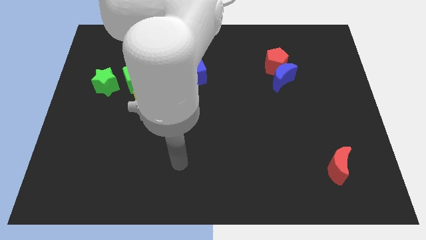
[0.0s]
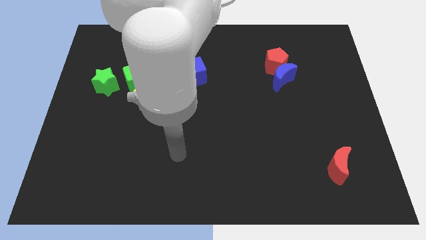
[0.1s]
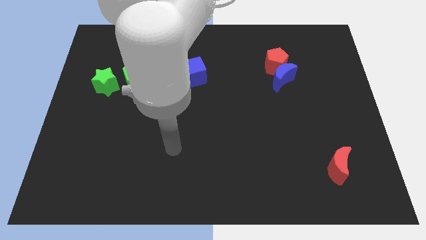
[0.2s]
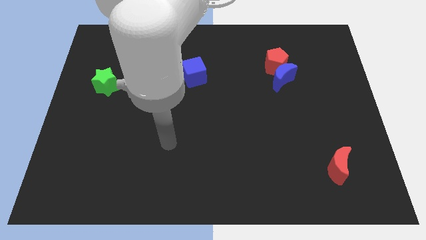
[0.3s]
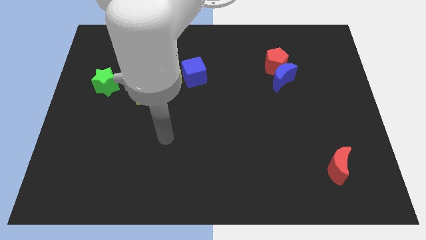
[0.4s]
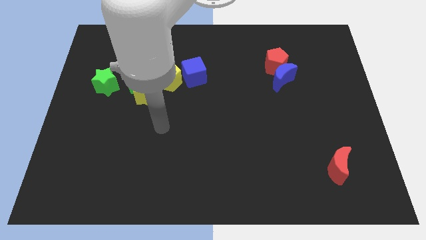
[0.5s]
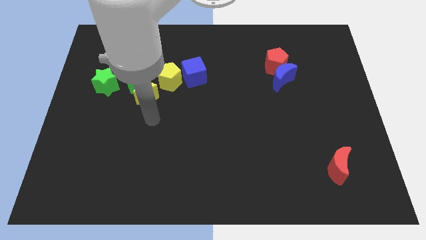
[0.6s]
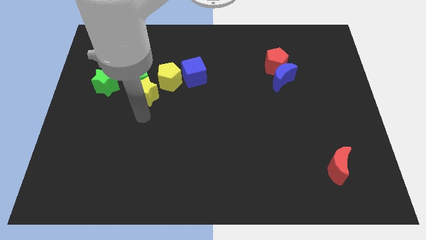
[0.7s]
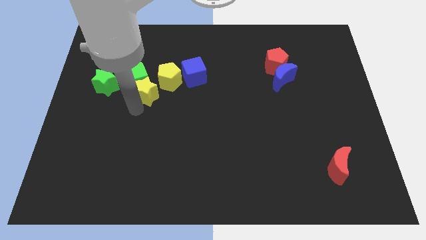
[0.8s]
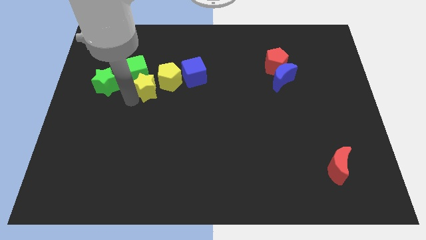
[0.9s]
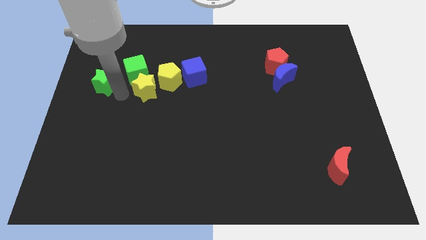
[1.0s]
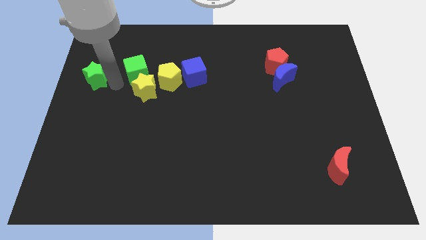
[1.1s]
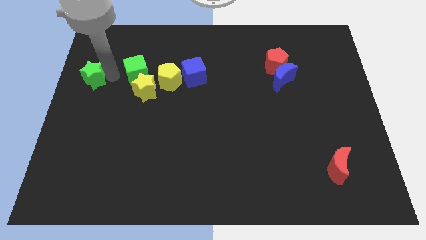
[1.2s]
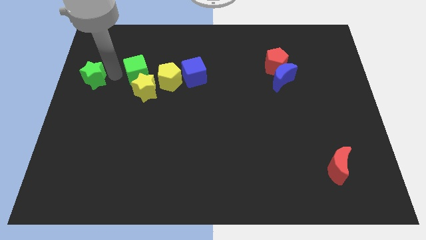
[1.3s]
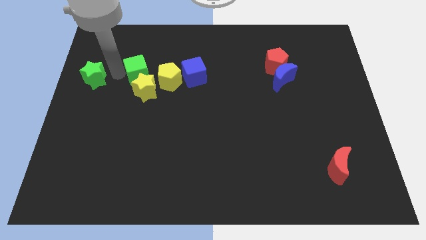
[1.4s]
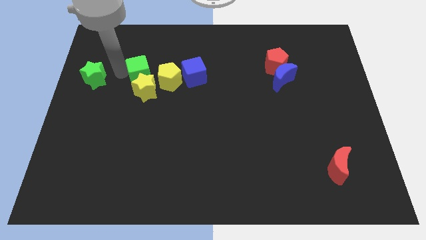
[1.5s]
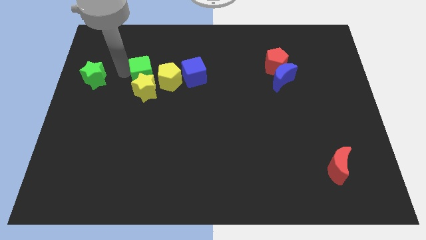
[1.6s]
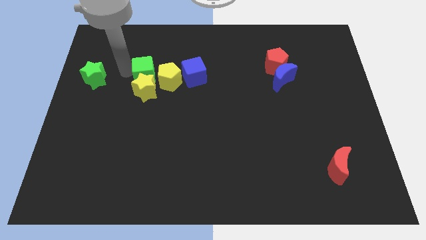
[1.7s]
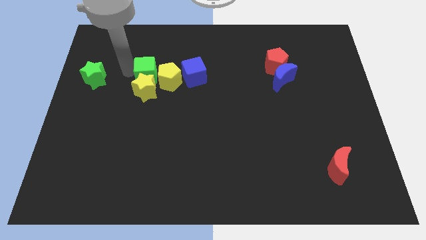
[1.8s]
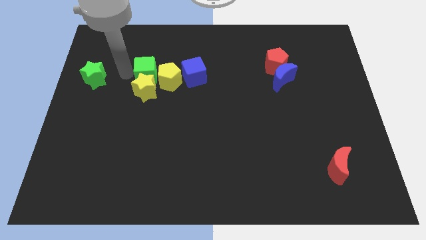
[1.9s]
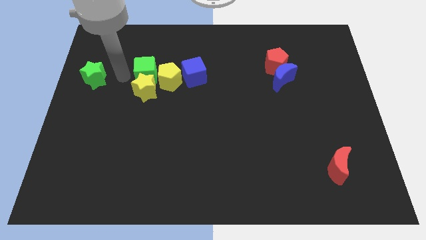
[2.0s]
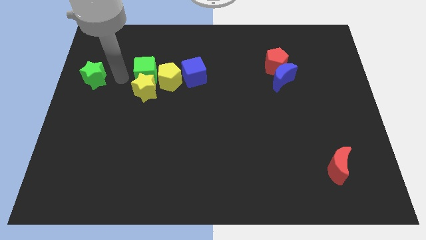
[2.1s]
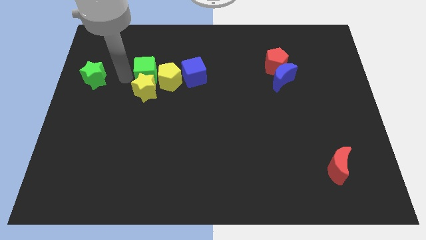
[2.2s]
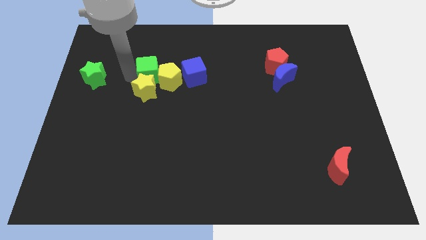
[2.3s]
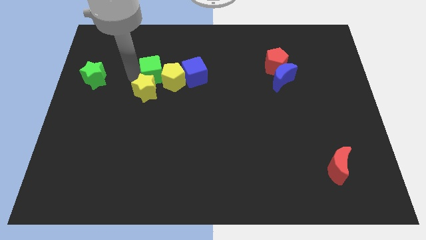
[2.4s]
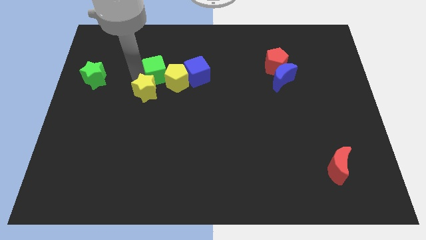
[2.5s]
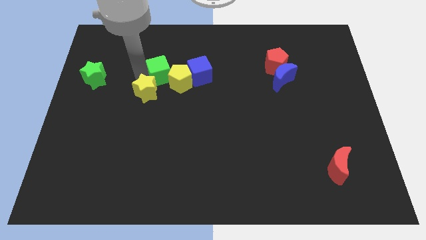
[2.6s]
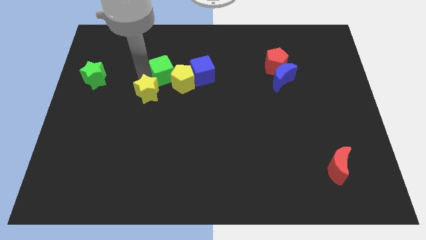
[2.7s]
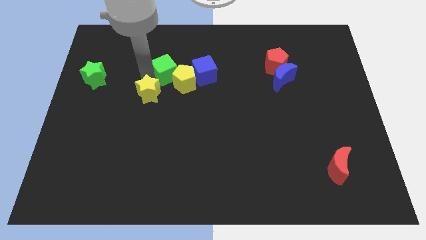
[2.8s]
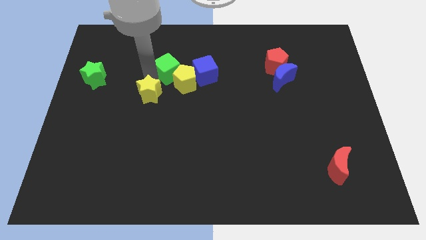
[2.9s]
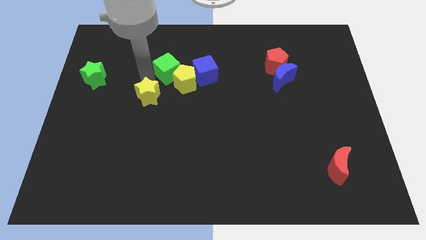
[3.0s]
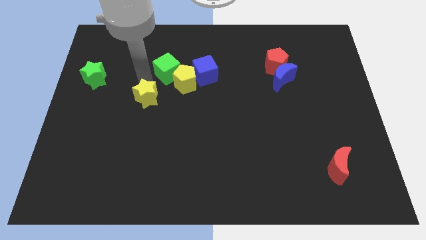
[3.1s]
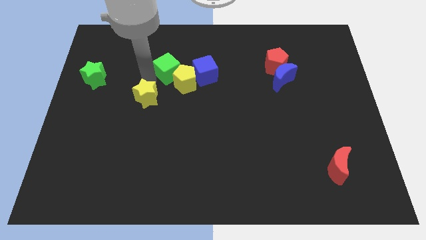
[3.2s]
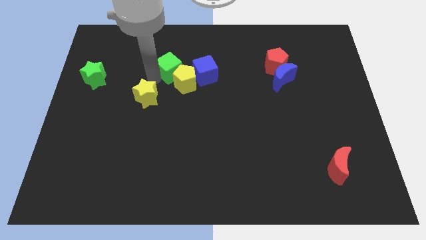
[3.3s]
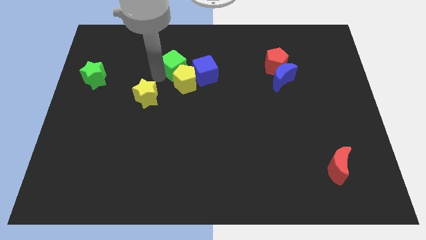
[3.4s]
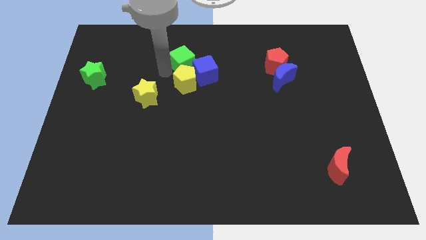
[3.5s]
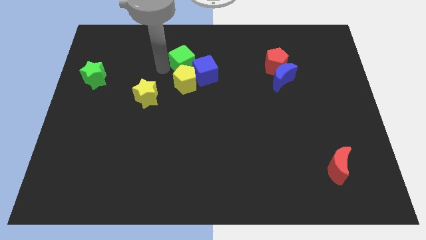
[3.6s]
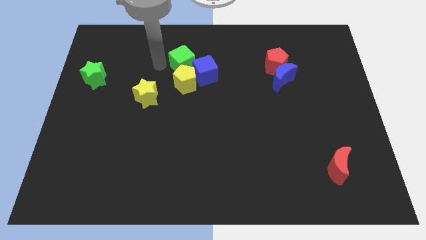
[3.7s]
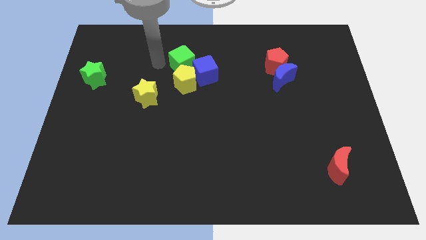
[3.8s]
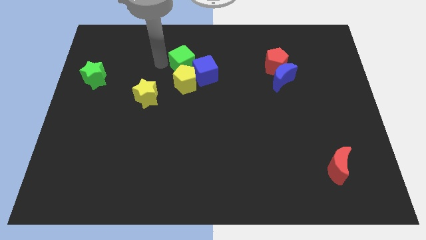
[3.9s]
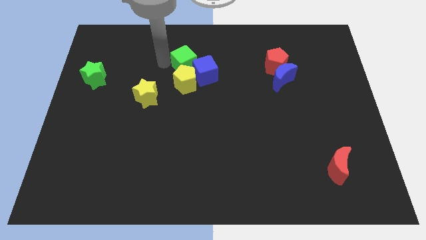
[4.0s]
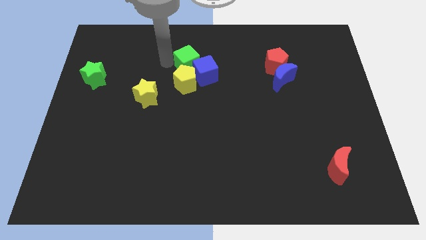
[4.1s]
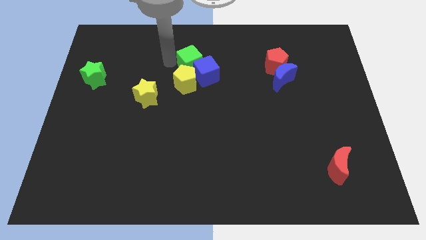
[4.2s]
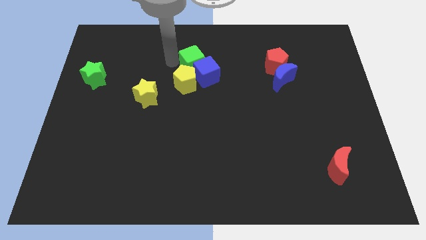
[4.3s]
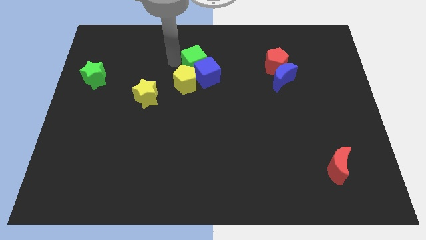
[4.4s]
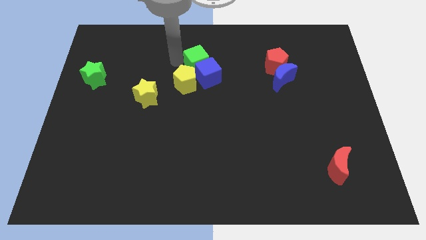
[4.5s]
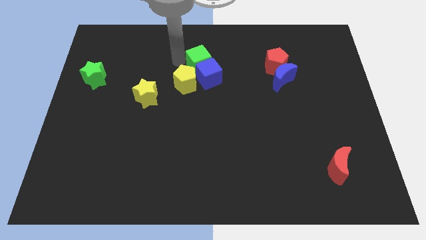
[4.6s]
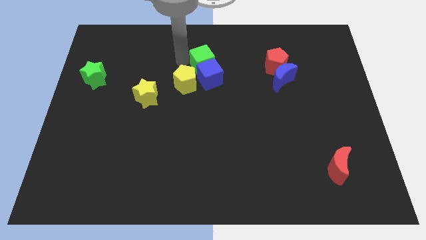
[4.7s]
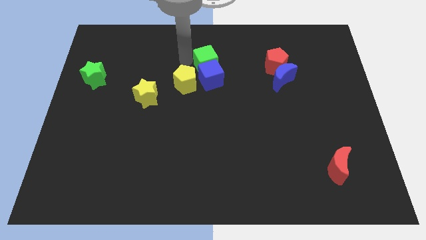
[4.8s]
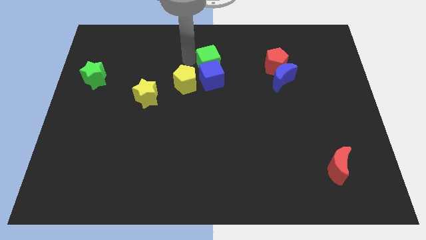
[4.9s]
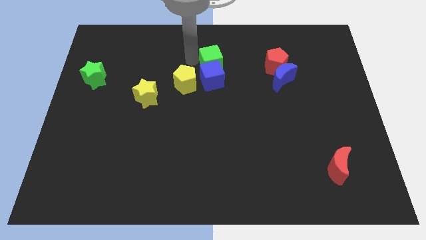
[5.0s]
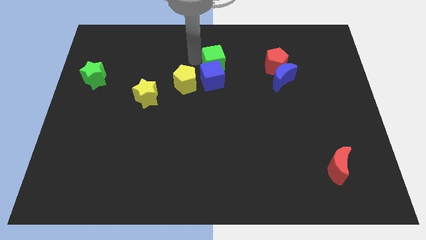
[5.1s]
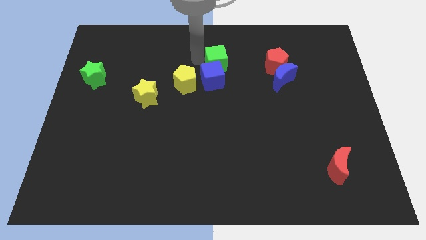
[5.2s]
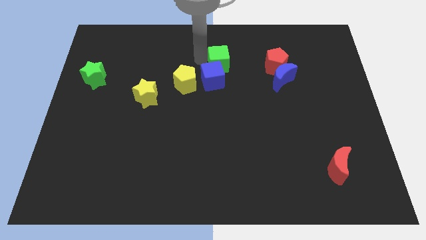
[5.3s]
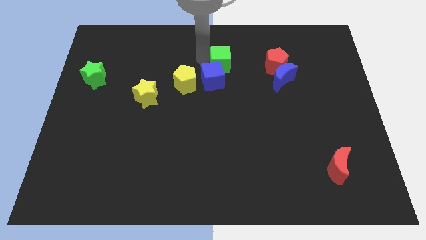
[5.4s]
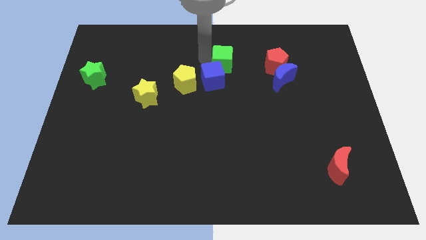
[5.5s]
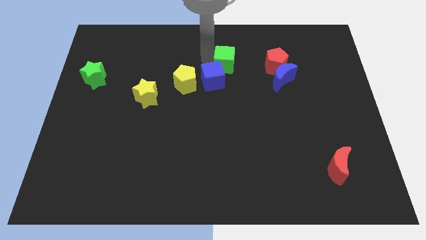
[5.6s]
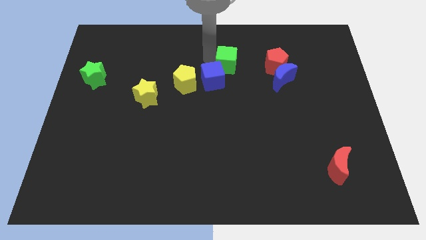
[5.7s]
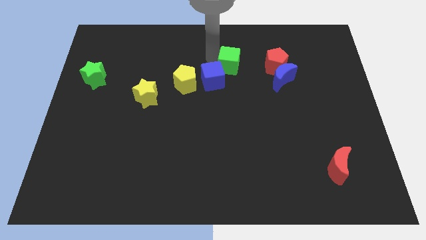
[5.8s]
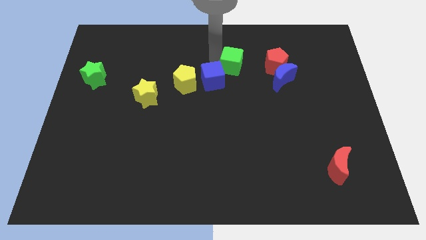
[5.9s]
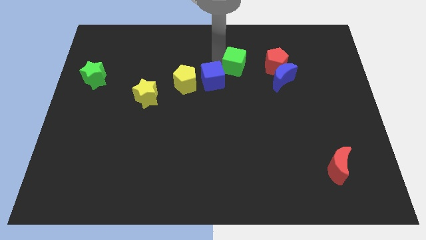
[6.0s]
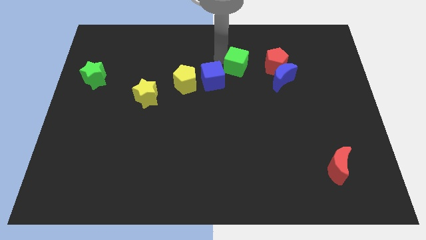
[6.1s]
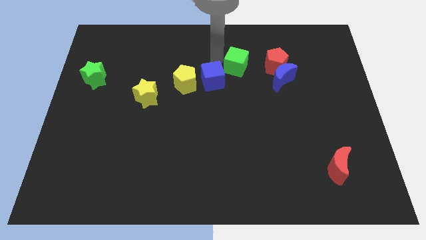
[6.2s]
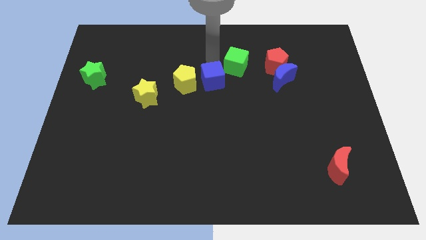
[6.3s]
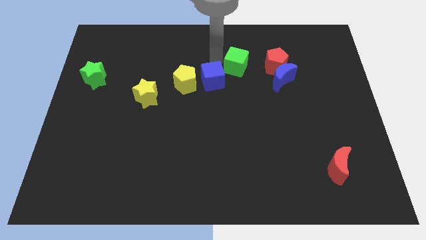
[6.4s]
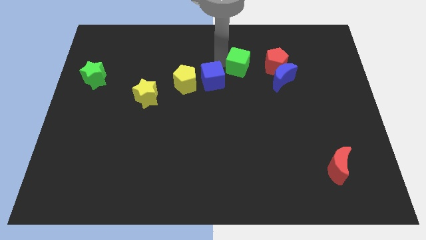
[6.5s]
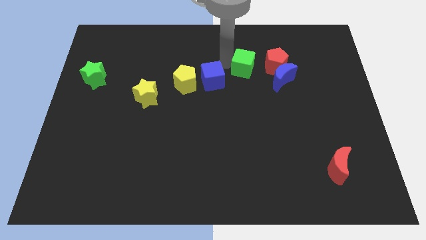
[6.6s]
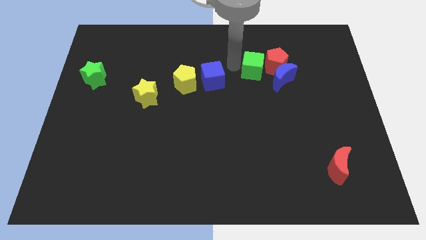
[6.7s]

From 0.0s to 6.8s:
slide the green cube to the red pentagon
